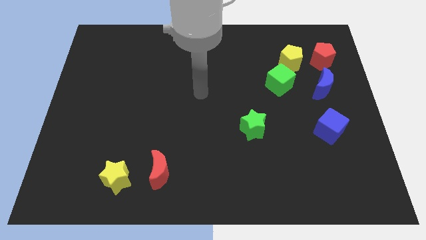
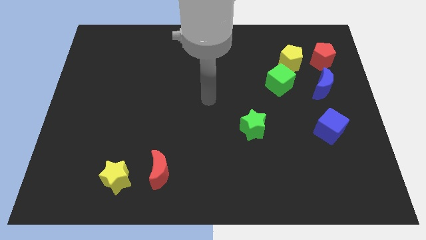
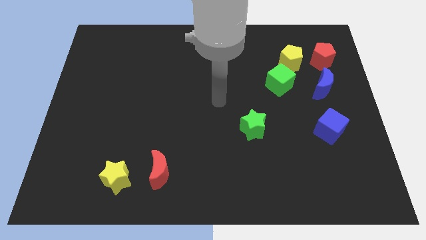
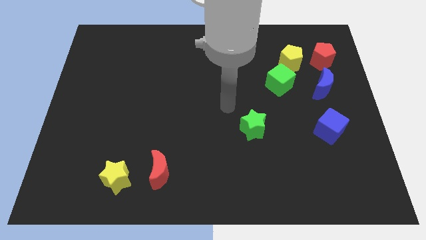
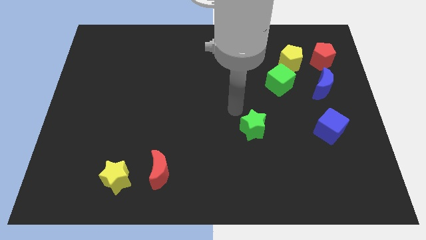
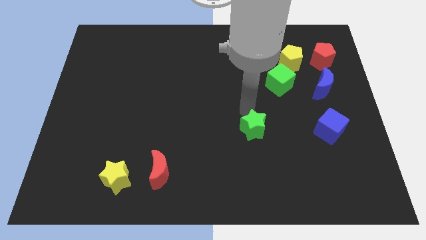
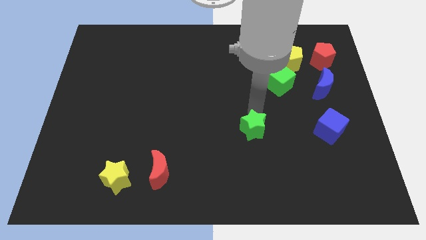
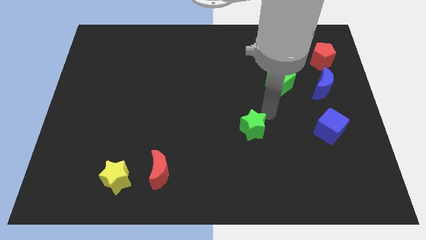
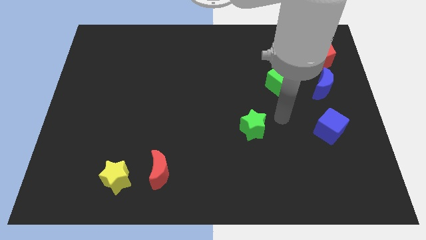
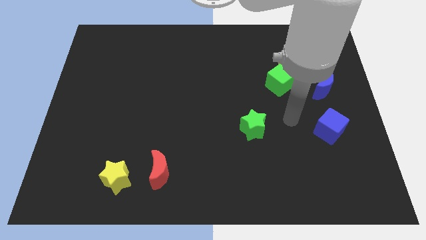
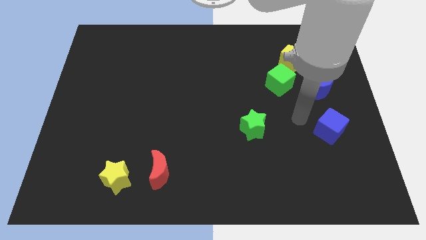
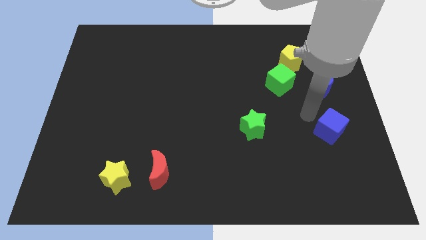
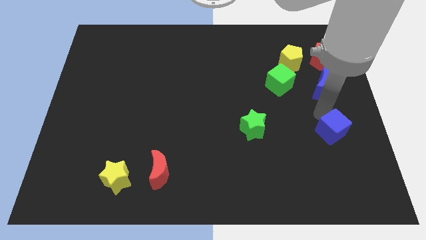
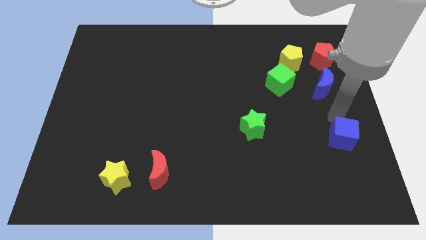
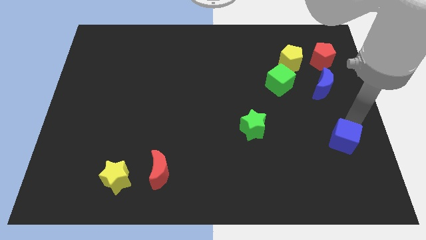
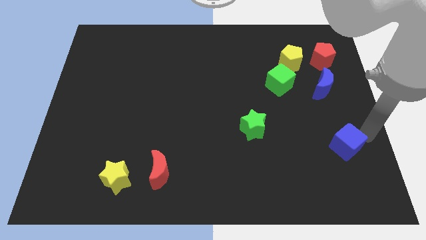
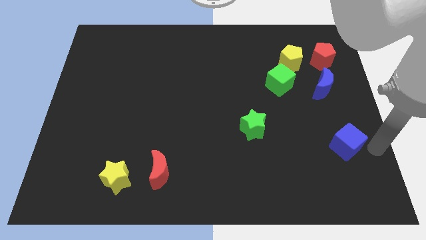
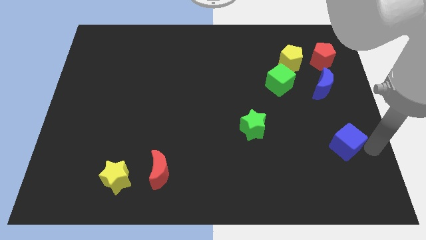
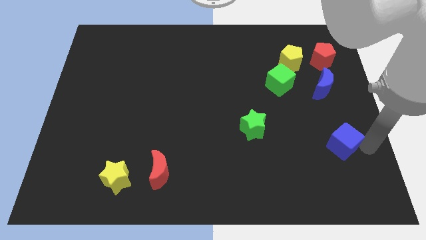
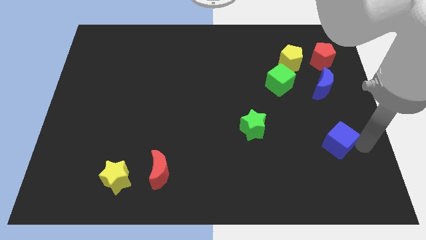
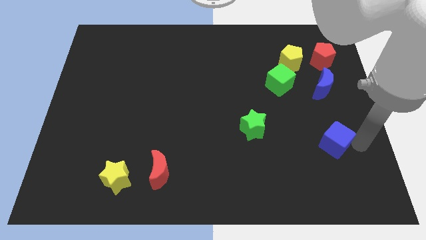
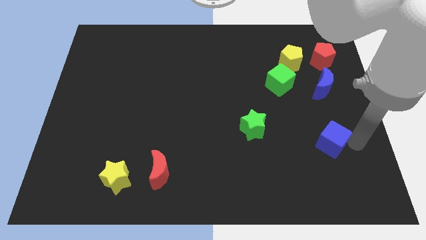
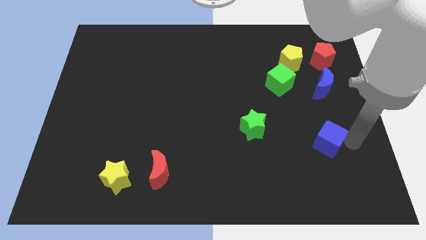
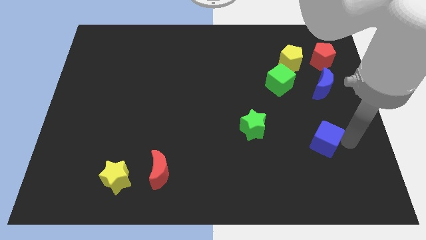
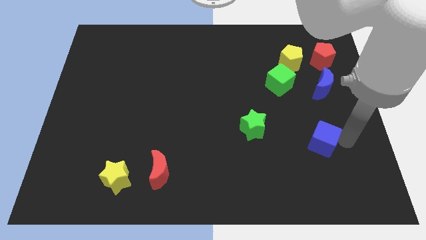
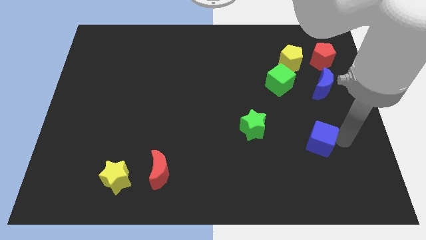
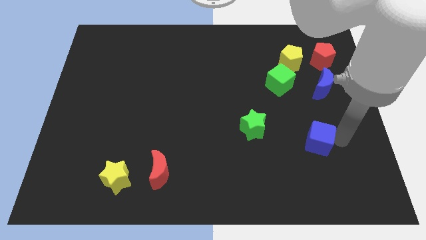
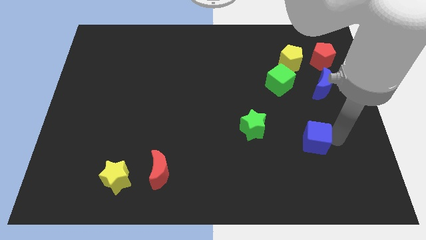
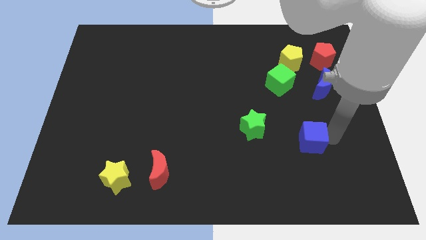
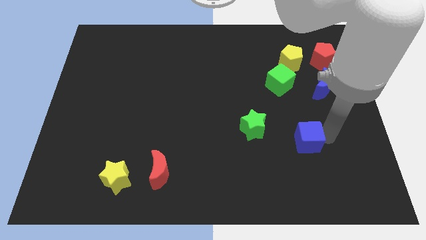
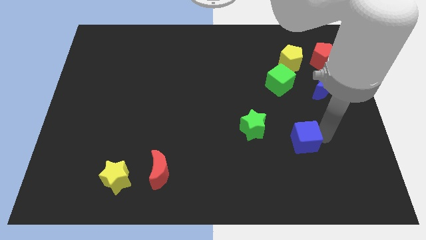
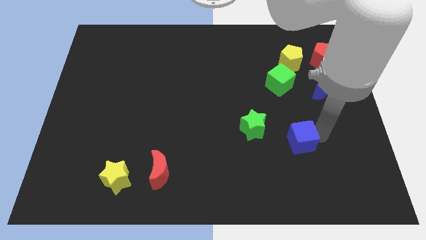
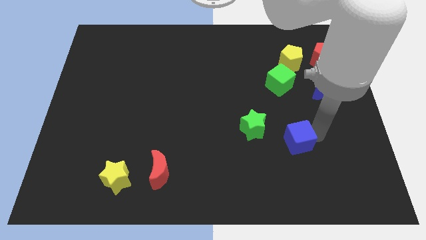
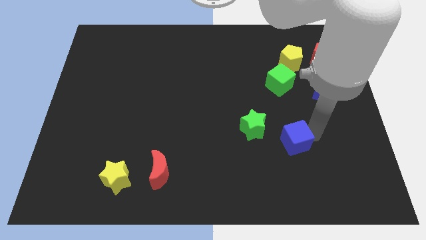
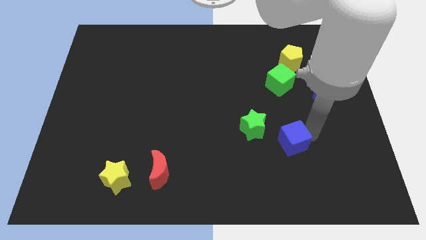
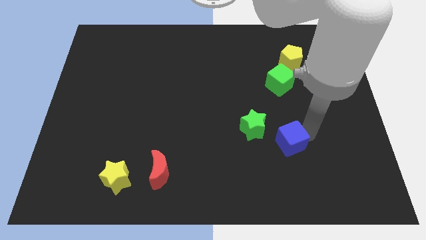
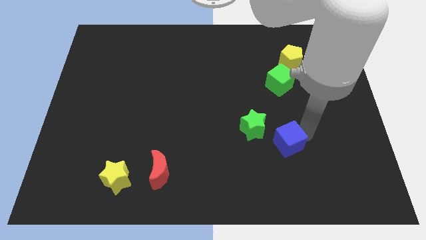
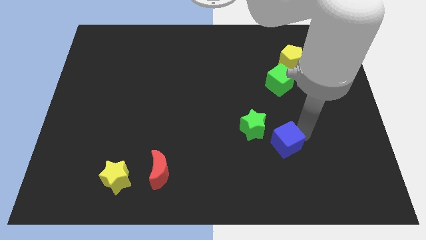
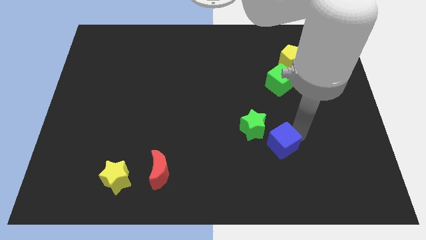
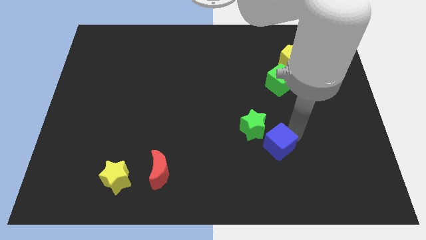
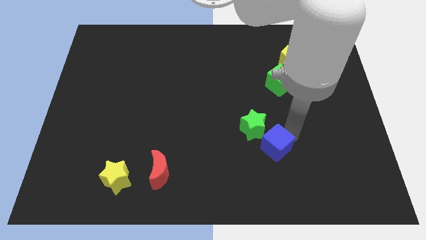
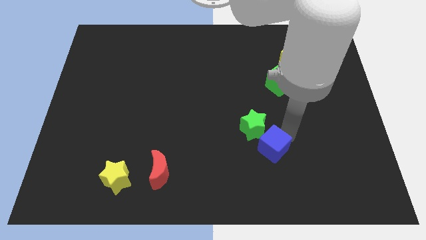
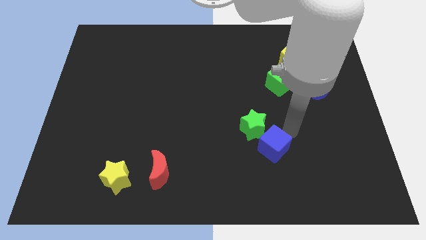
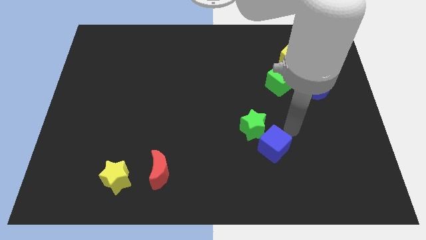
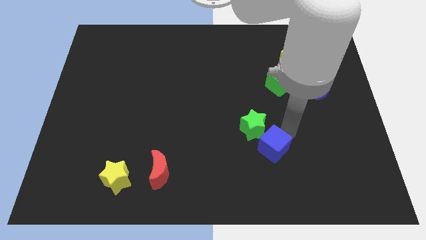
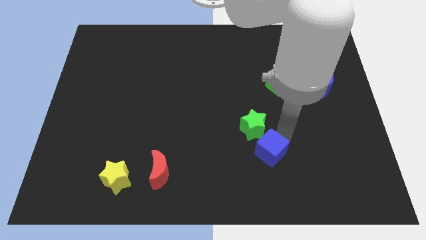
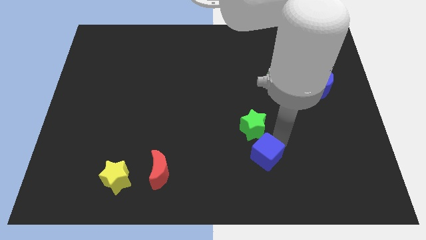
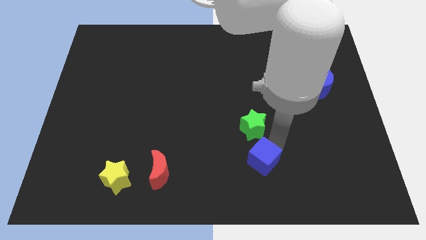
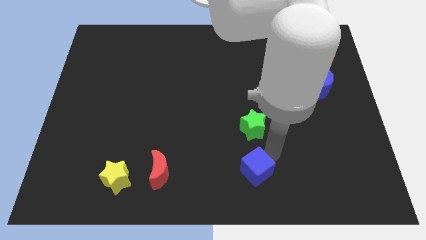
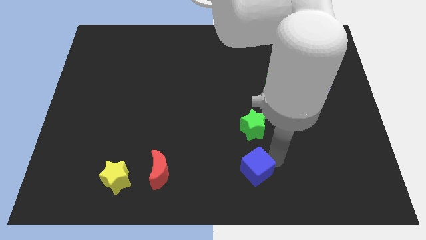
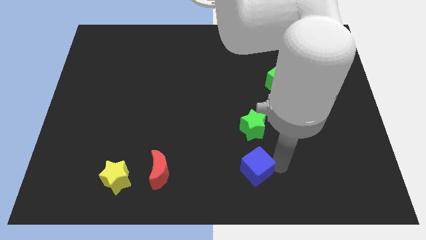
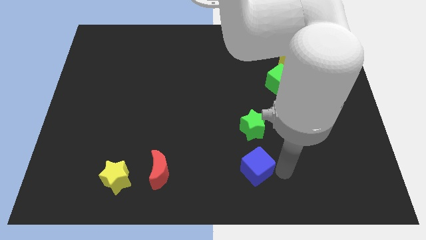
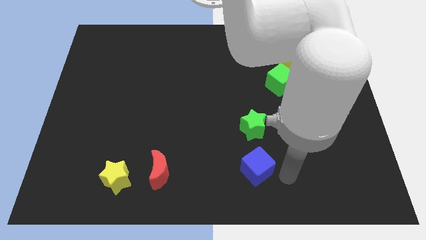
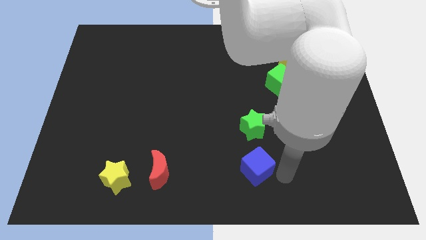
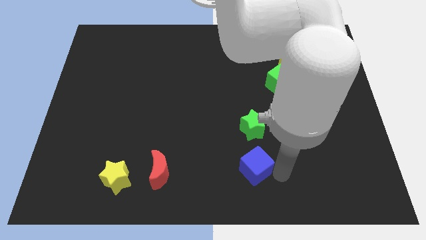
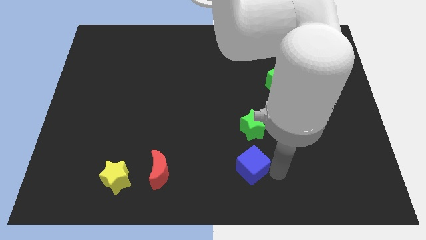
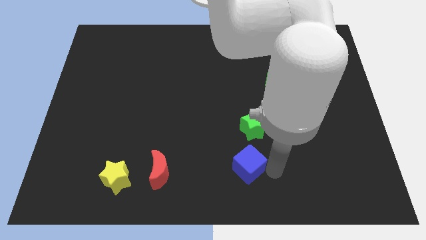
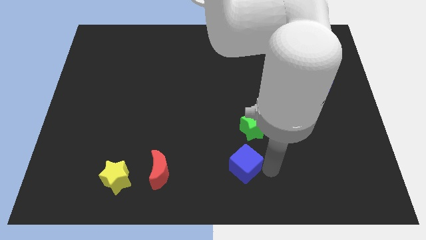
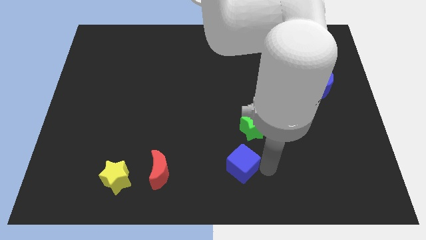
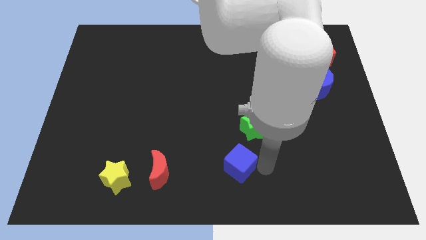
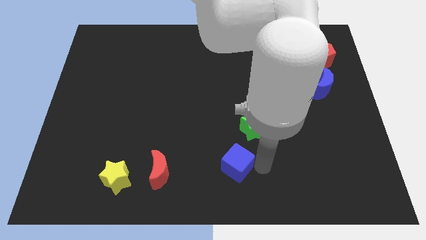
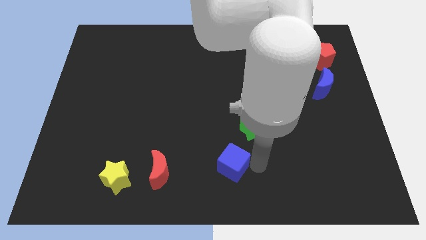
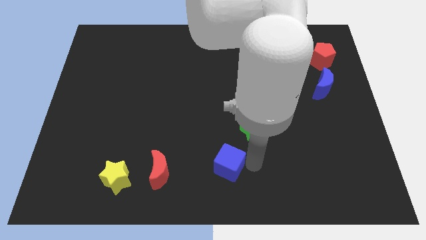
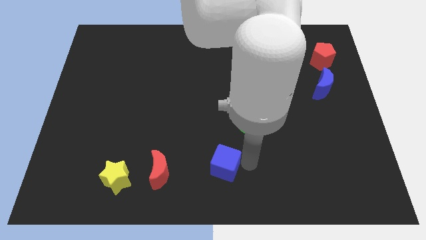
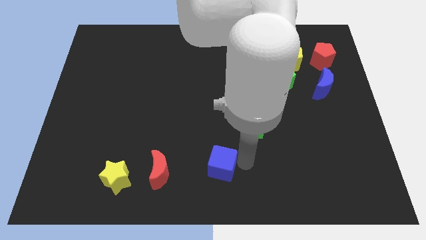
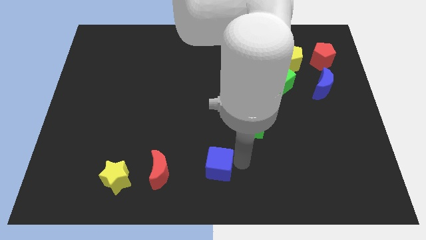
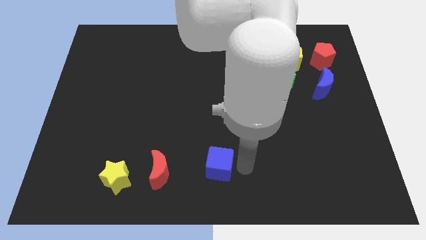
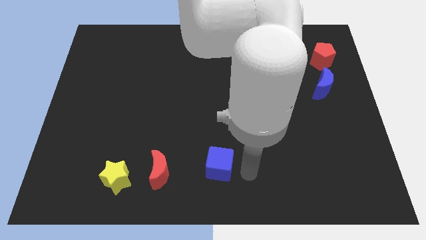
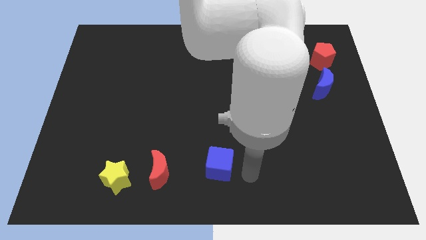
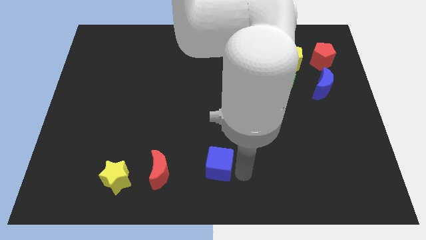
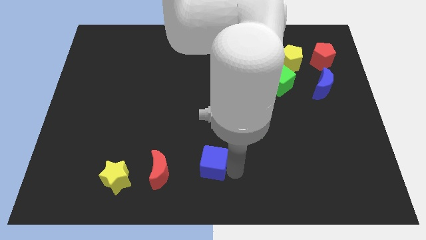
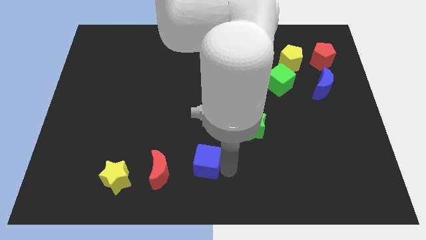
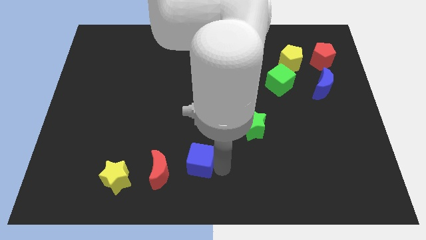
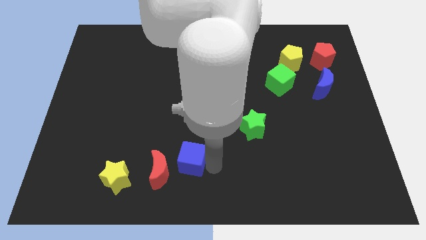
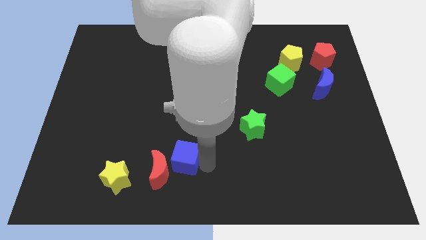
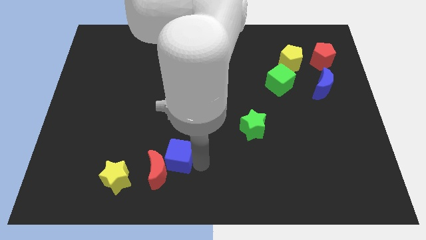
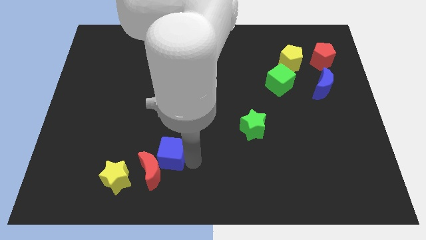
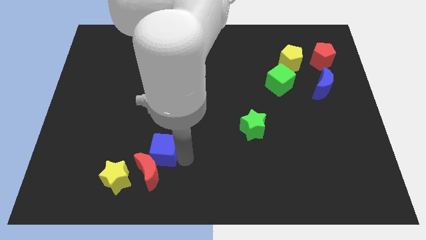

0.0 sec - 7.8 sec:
move the blue cube to the top right side of the yellow star
